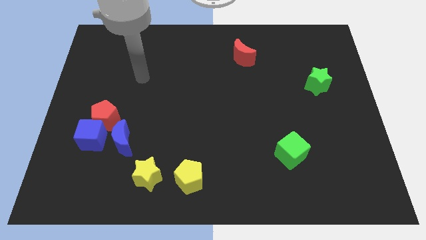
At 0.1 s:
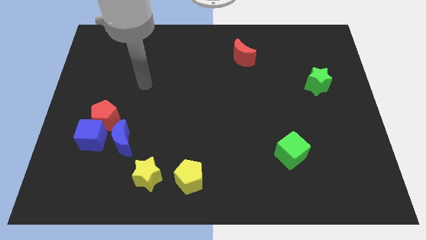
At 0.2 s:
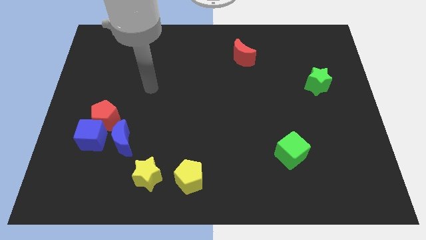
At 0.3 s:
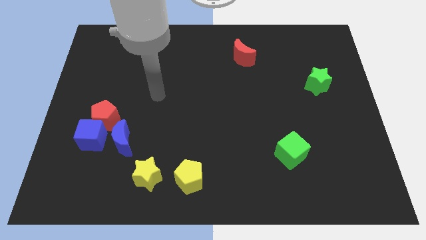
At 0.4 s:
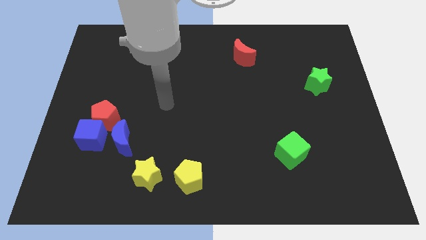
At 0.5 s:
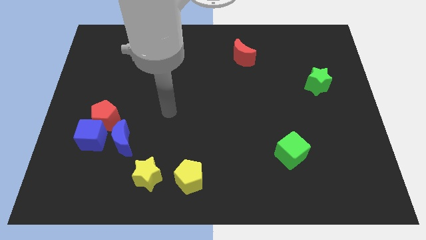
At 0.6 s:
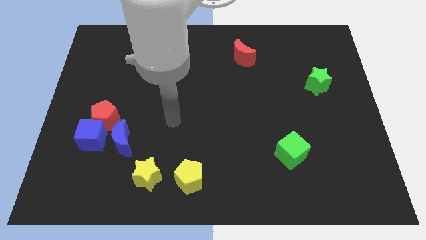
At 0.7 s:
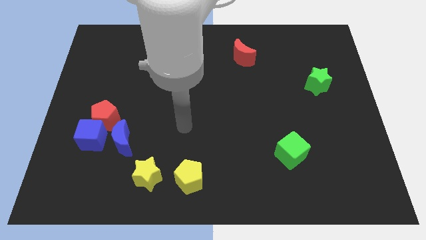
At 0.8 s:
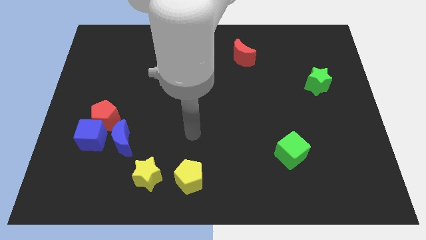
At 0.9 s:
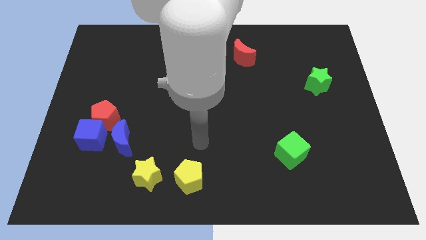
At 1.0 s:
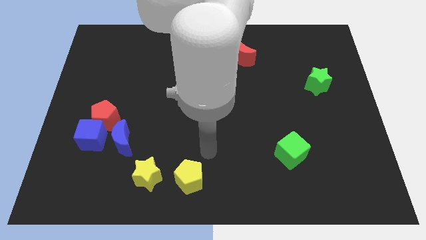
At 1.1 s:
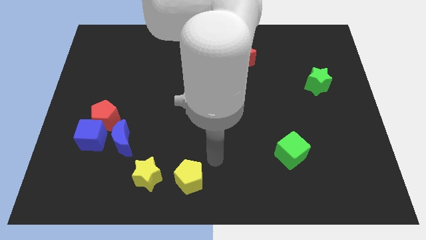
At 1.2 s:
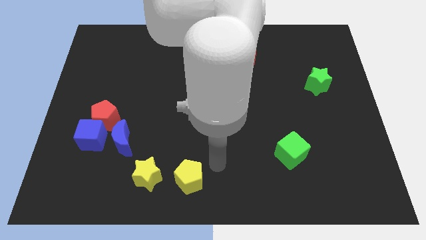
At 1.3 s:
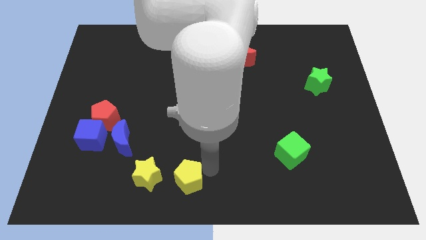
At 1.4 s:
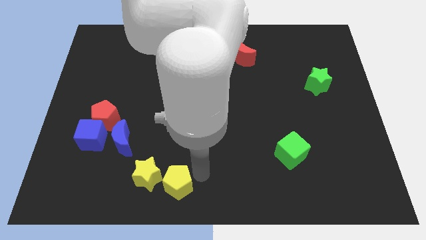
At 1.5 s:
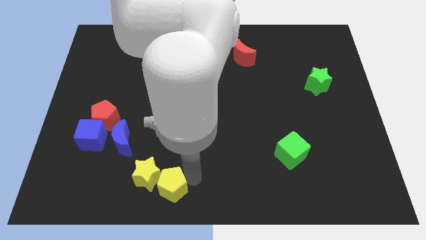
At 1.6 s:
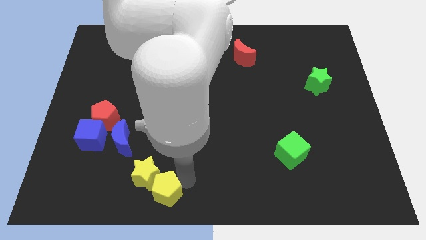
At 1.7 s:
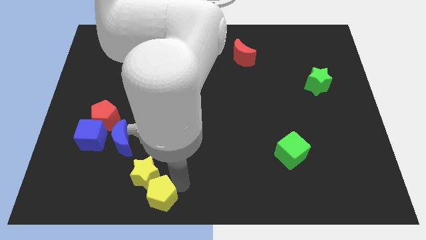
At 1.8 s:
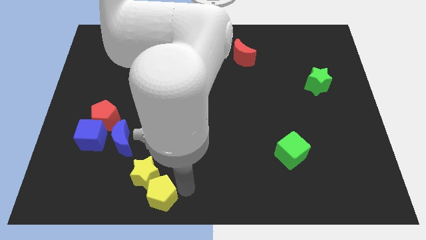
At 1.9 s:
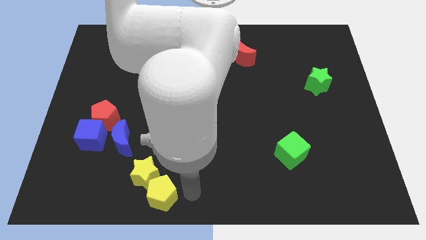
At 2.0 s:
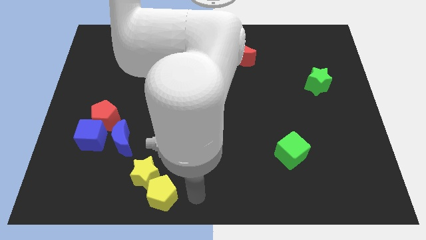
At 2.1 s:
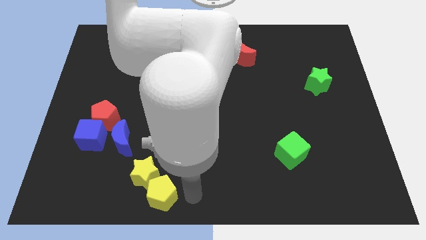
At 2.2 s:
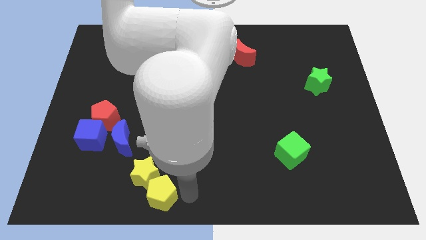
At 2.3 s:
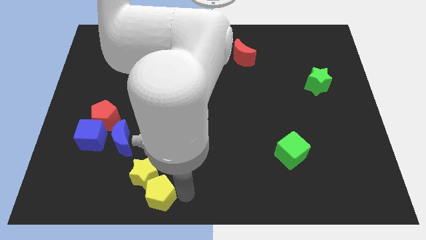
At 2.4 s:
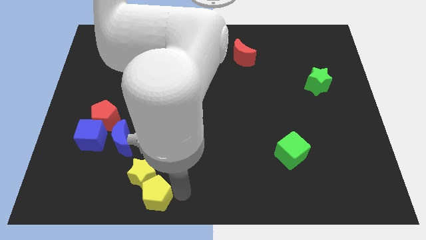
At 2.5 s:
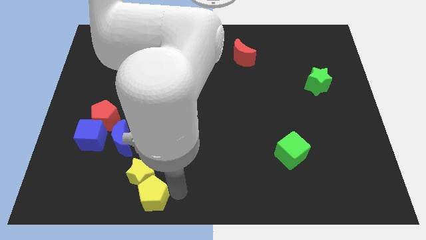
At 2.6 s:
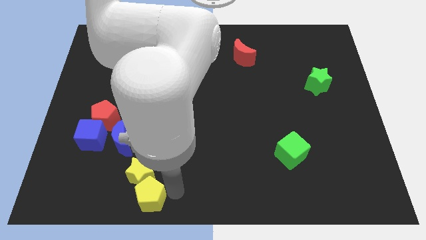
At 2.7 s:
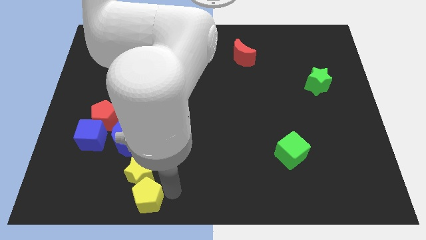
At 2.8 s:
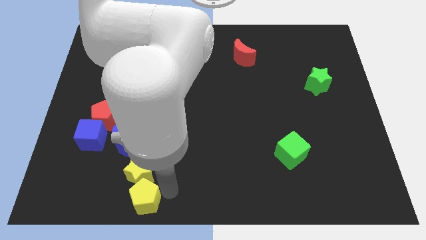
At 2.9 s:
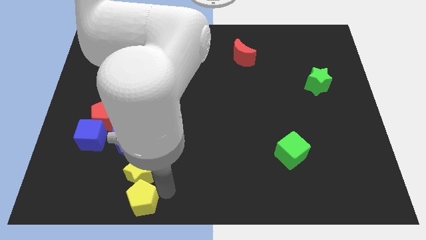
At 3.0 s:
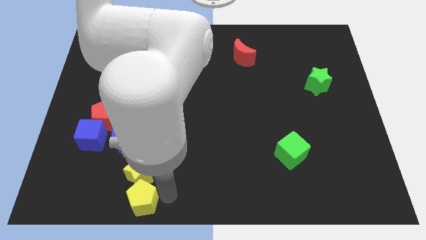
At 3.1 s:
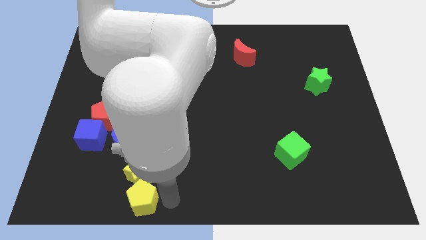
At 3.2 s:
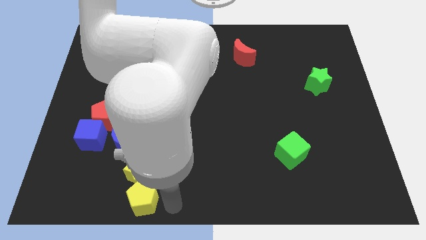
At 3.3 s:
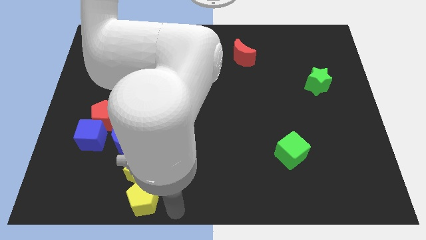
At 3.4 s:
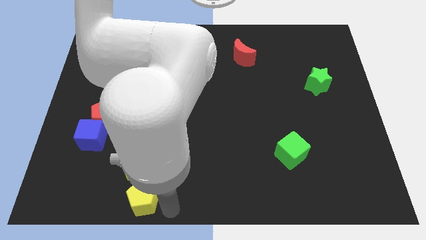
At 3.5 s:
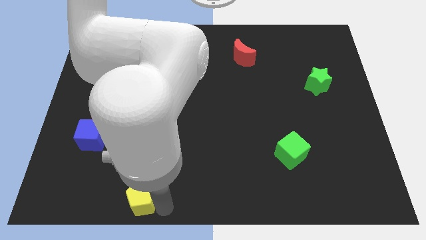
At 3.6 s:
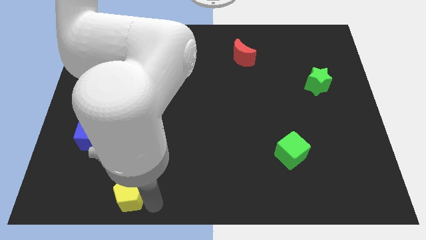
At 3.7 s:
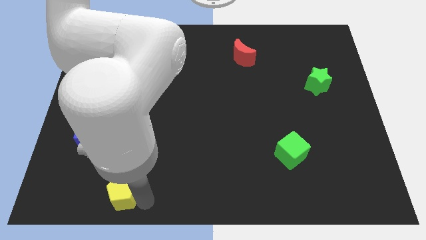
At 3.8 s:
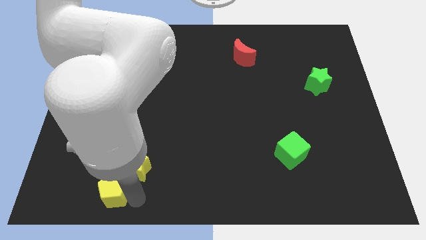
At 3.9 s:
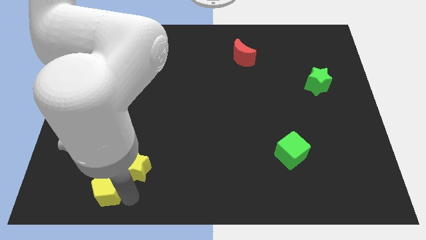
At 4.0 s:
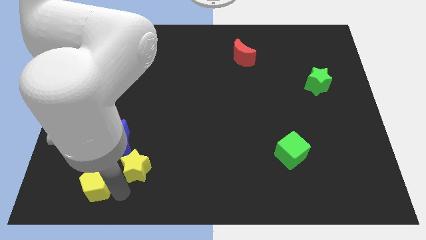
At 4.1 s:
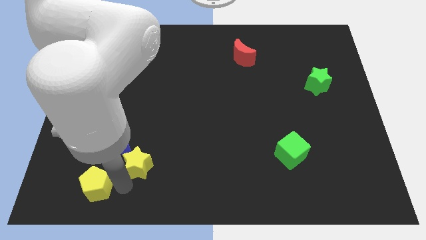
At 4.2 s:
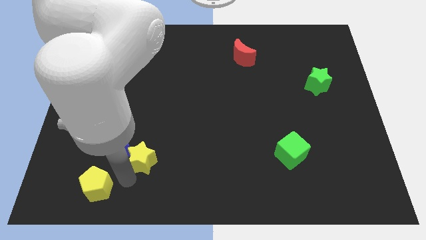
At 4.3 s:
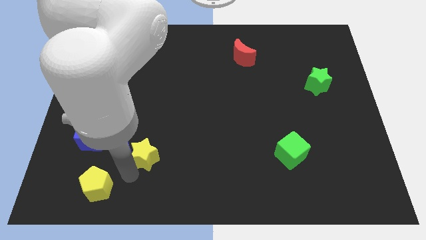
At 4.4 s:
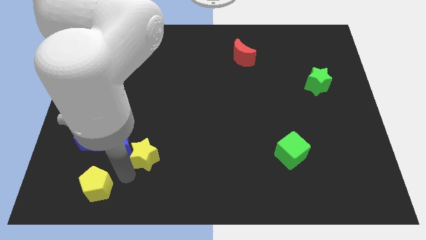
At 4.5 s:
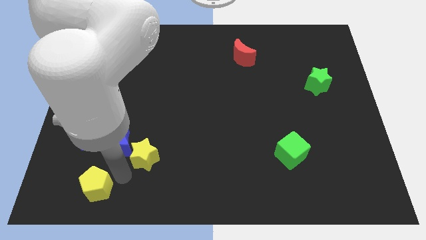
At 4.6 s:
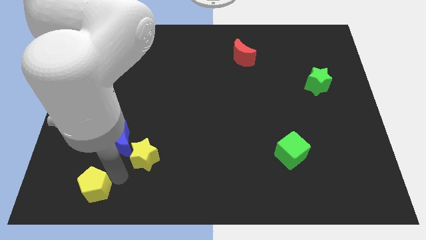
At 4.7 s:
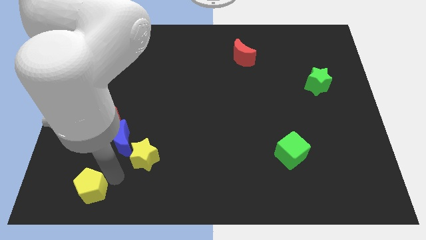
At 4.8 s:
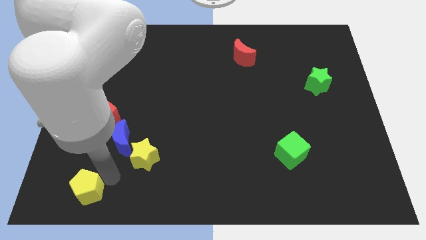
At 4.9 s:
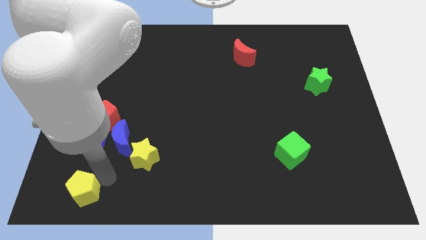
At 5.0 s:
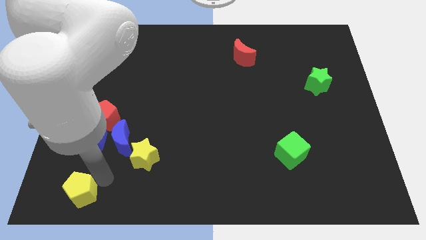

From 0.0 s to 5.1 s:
put the yellow pentagon to the lower left corner

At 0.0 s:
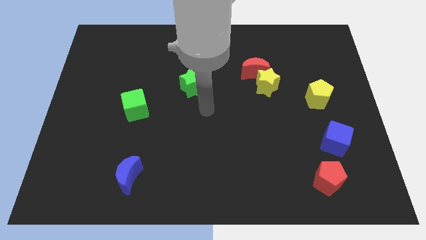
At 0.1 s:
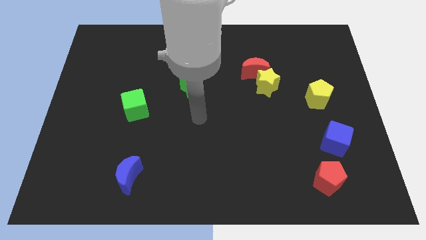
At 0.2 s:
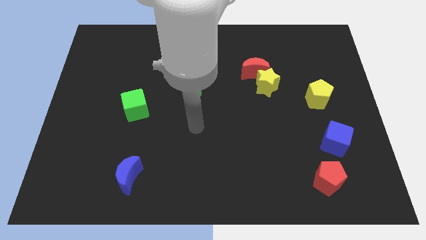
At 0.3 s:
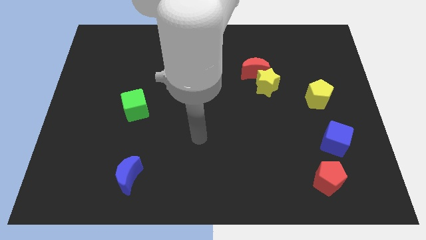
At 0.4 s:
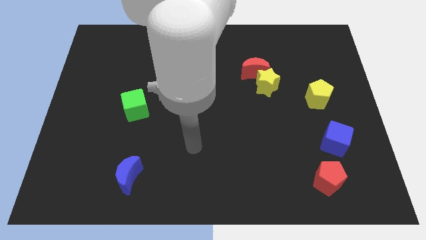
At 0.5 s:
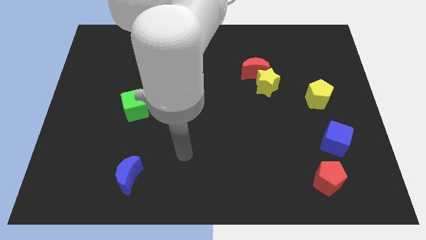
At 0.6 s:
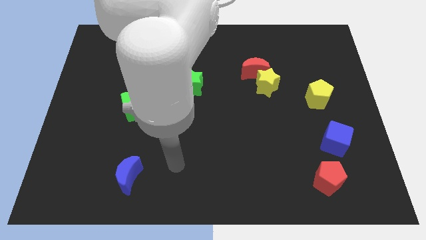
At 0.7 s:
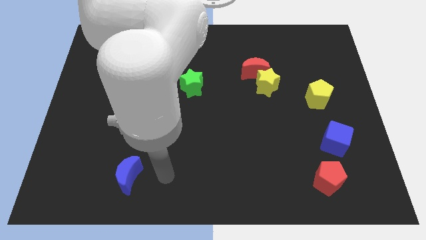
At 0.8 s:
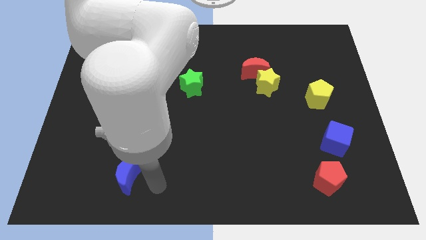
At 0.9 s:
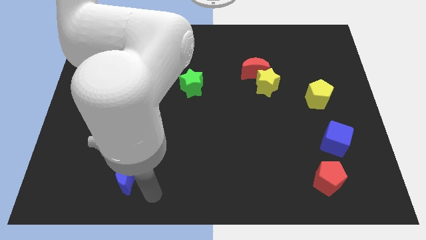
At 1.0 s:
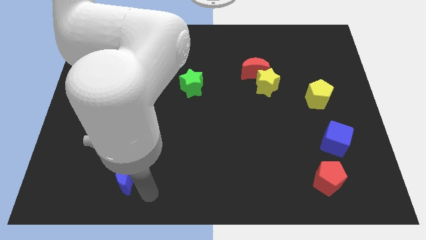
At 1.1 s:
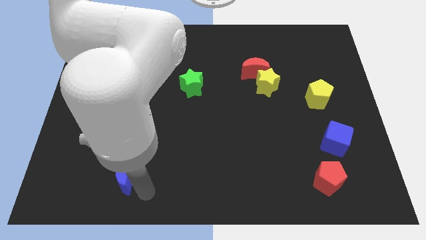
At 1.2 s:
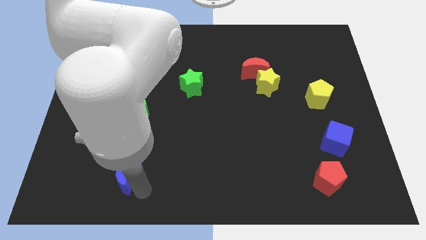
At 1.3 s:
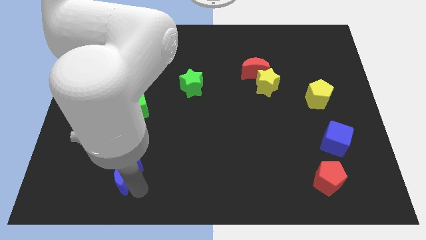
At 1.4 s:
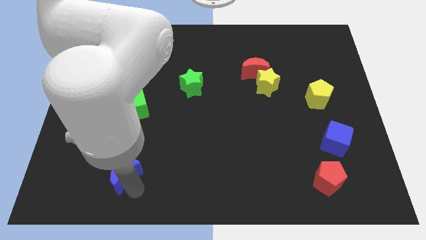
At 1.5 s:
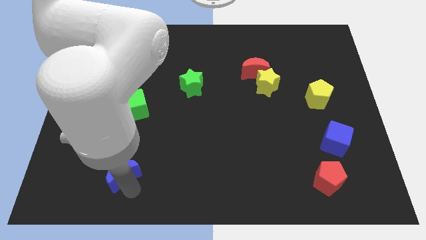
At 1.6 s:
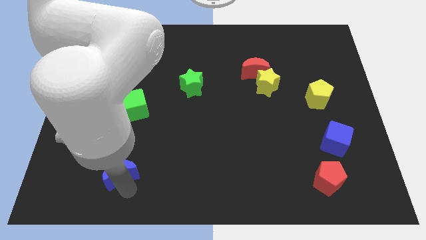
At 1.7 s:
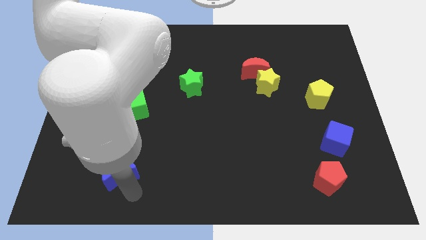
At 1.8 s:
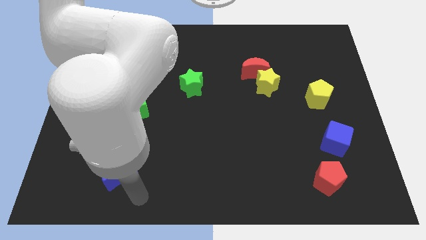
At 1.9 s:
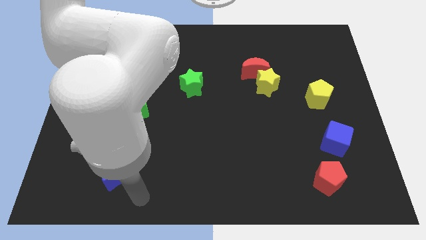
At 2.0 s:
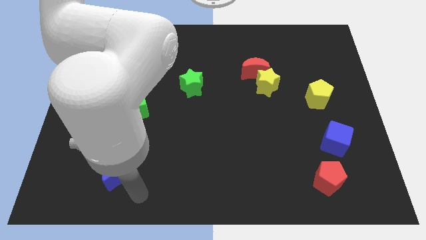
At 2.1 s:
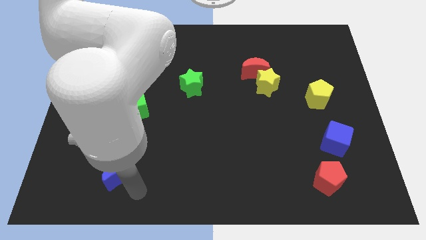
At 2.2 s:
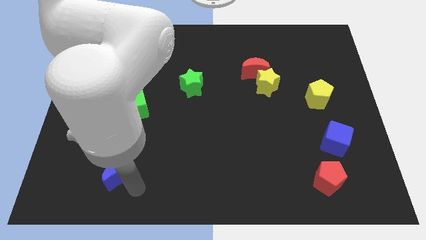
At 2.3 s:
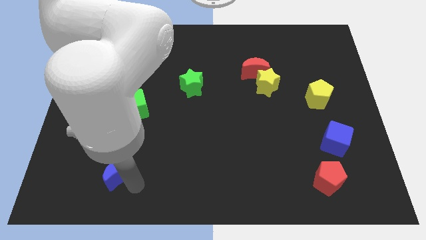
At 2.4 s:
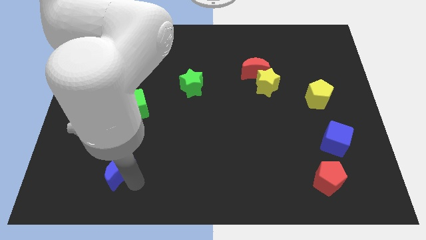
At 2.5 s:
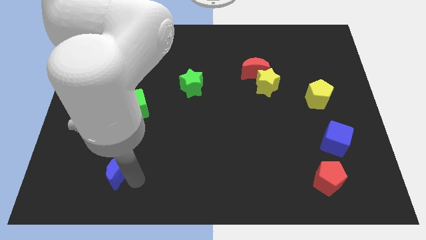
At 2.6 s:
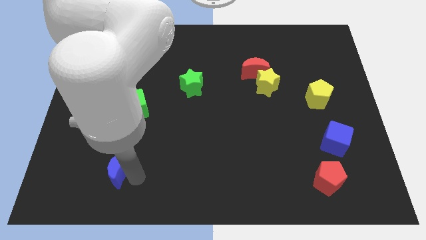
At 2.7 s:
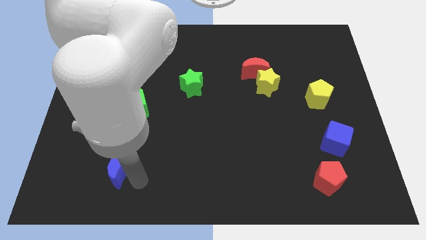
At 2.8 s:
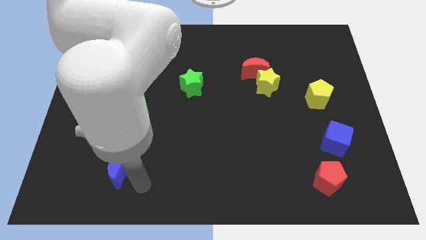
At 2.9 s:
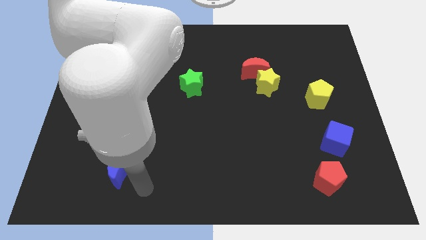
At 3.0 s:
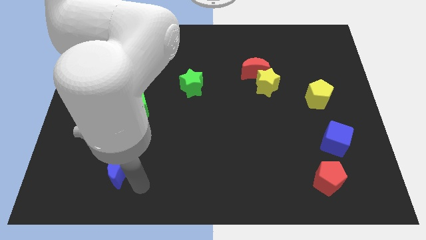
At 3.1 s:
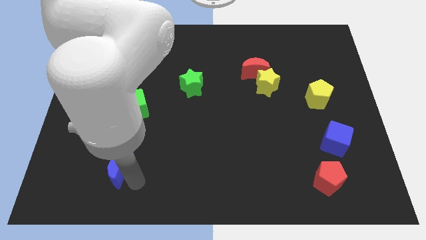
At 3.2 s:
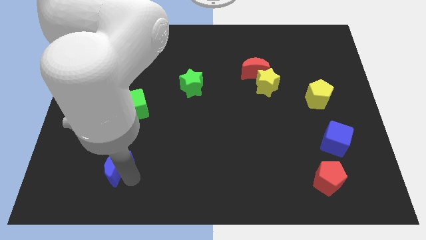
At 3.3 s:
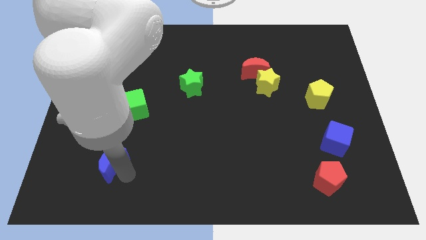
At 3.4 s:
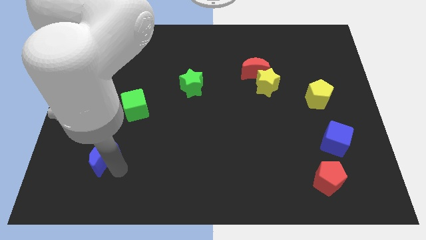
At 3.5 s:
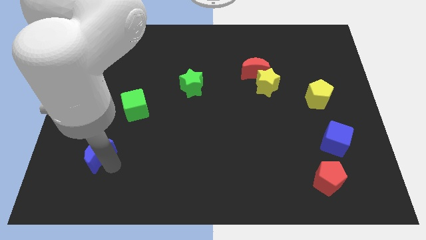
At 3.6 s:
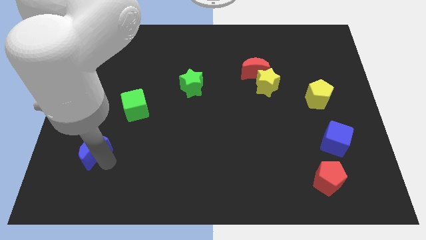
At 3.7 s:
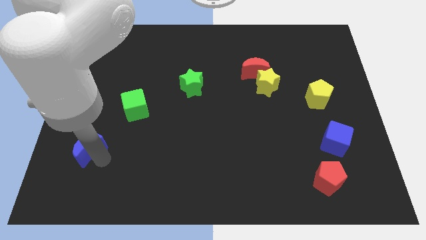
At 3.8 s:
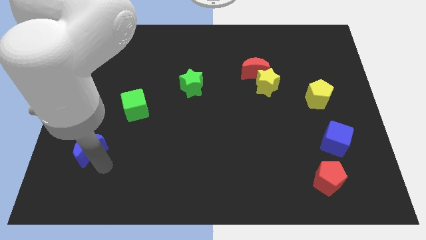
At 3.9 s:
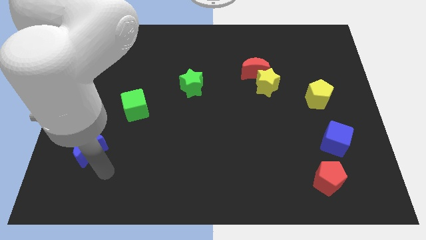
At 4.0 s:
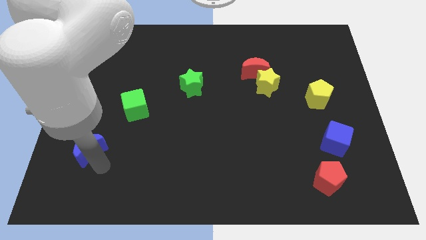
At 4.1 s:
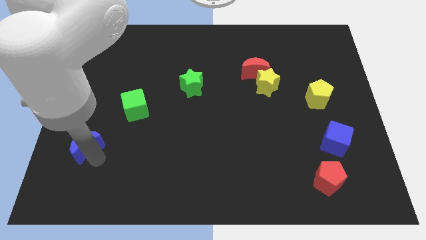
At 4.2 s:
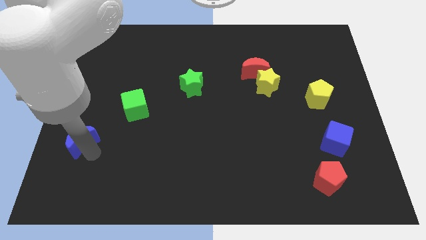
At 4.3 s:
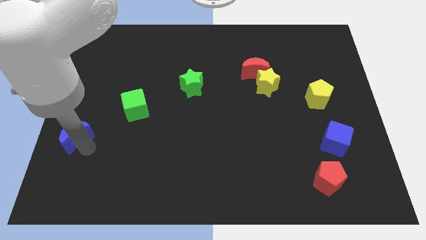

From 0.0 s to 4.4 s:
push the blue moon to the left side of the board
